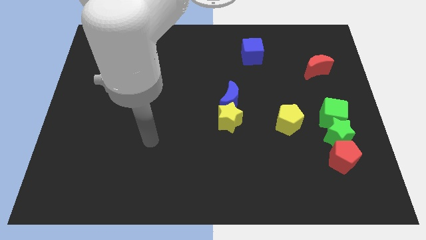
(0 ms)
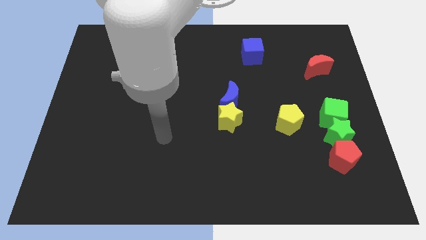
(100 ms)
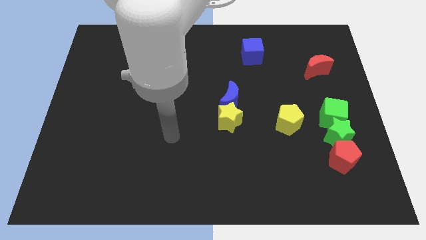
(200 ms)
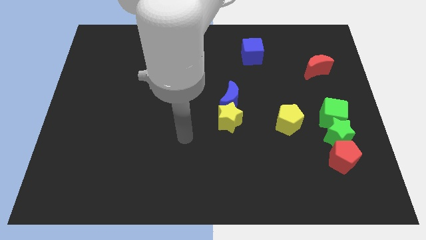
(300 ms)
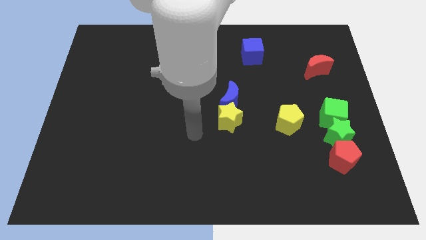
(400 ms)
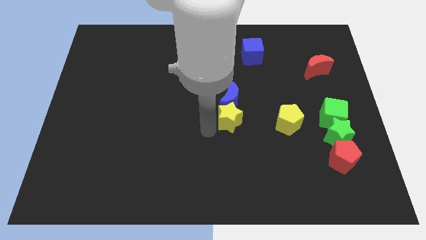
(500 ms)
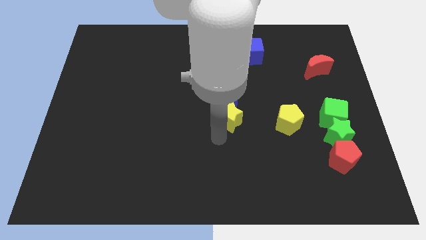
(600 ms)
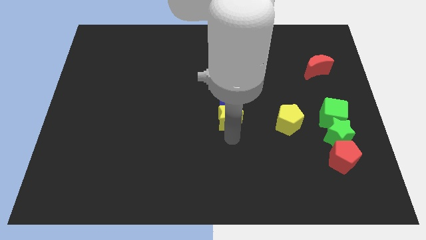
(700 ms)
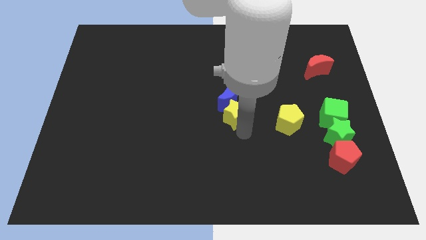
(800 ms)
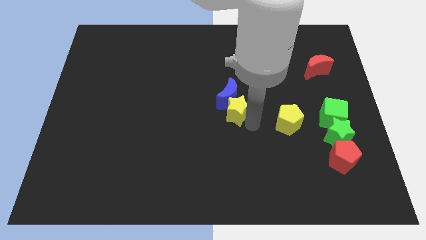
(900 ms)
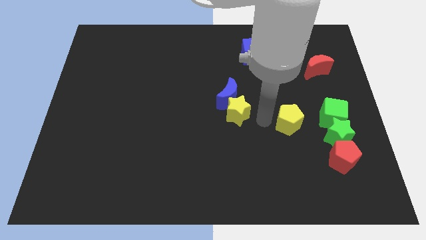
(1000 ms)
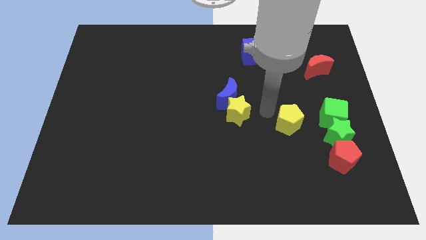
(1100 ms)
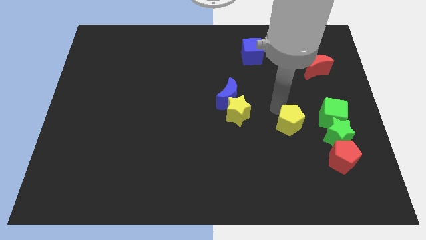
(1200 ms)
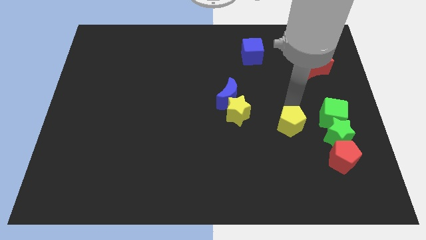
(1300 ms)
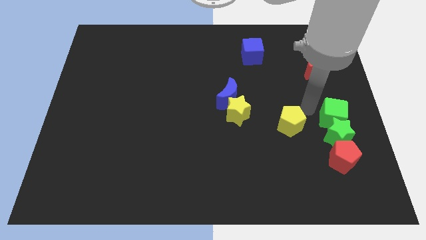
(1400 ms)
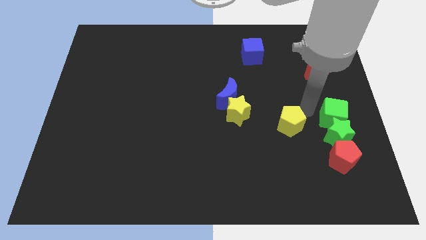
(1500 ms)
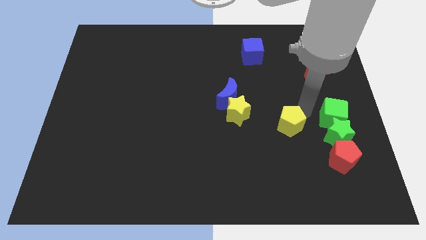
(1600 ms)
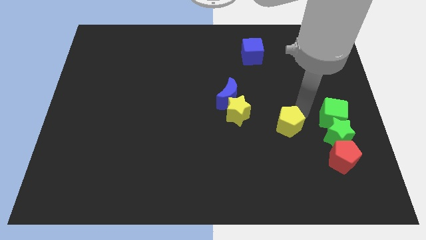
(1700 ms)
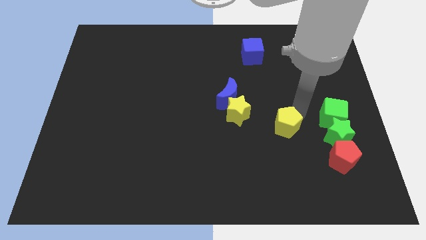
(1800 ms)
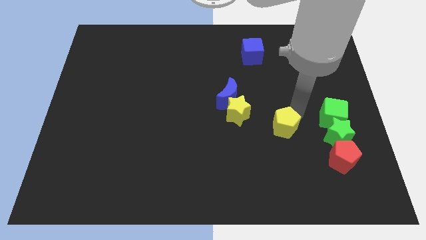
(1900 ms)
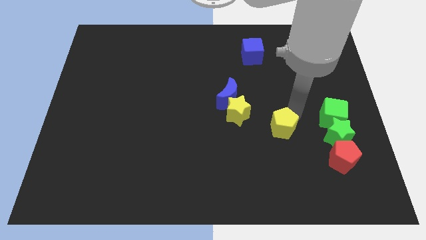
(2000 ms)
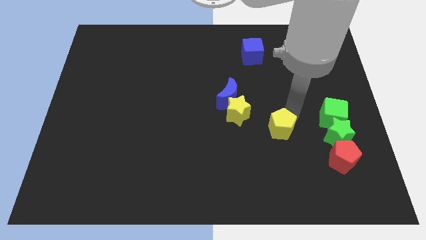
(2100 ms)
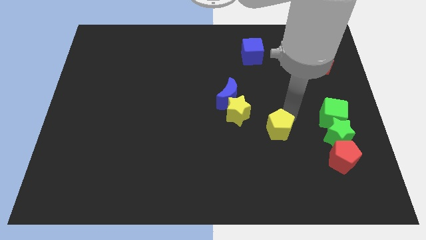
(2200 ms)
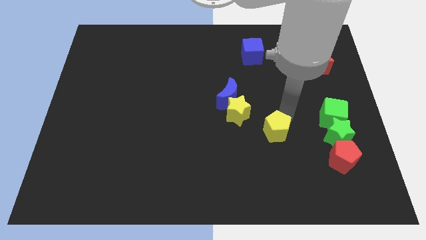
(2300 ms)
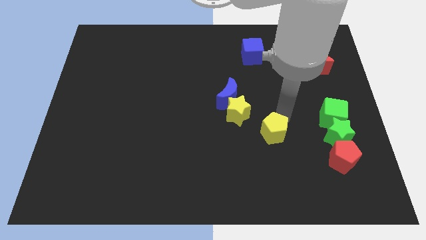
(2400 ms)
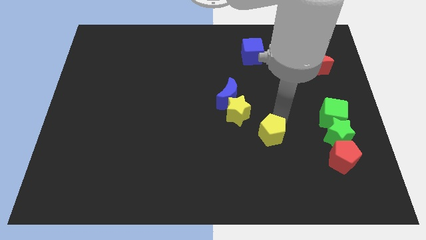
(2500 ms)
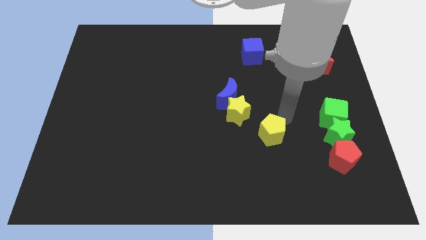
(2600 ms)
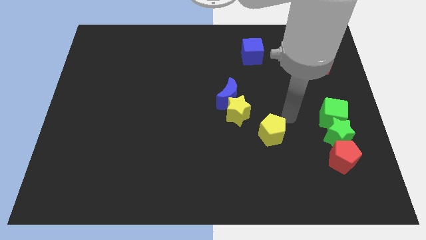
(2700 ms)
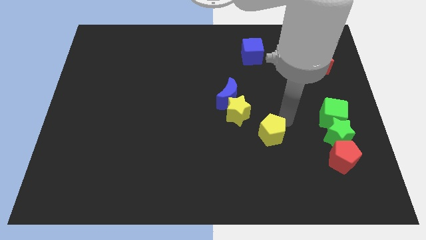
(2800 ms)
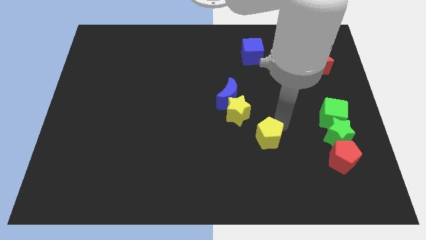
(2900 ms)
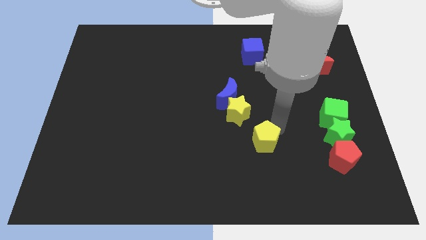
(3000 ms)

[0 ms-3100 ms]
move the yellow pentagon a little down and left

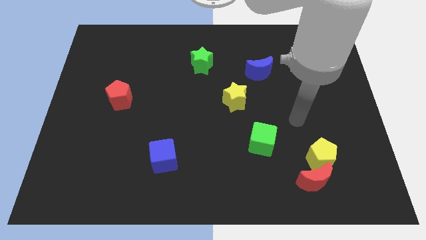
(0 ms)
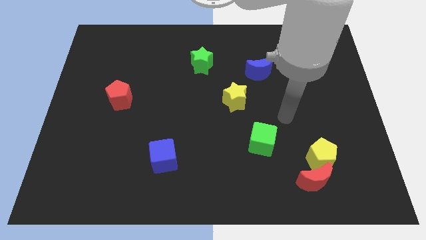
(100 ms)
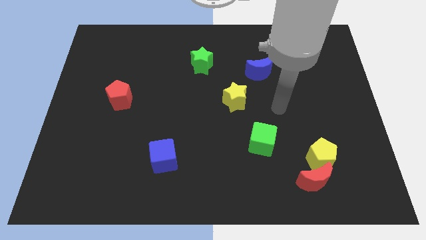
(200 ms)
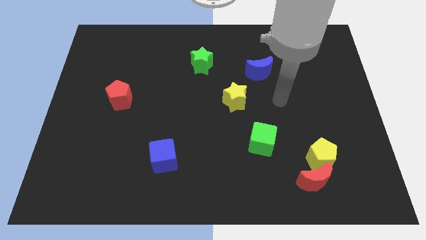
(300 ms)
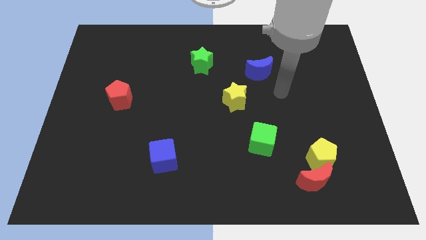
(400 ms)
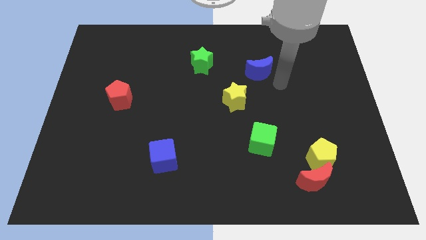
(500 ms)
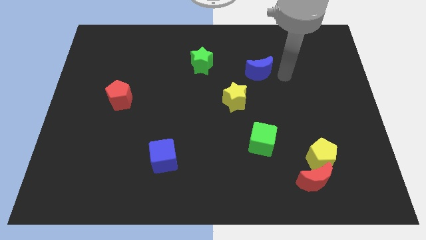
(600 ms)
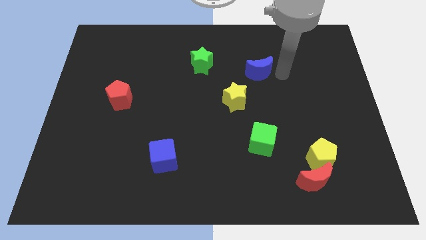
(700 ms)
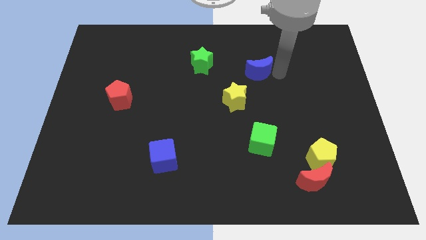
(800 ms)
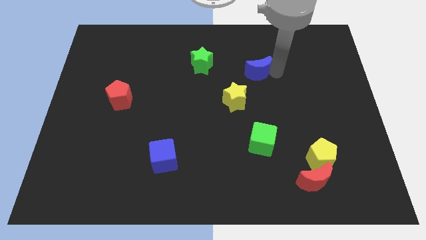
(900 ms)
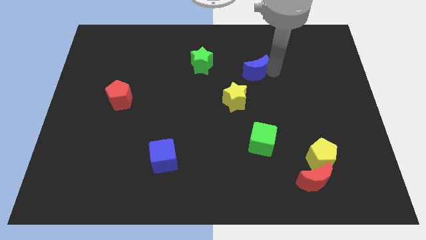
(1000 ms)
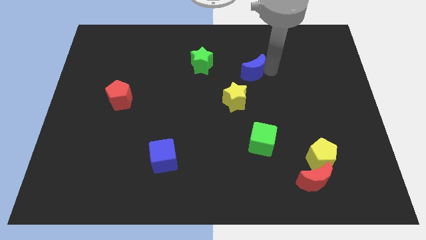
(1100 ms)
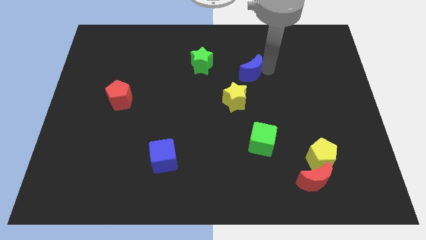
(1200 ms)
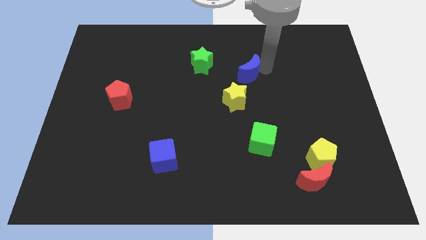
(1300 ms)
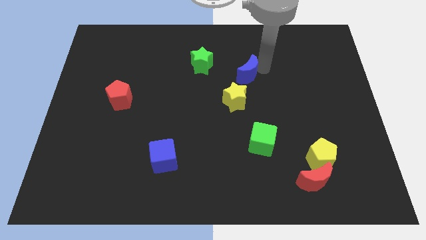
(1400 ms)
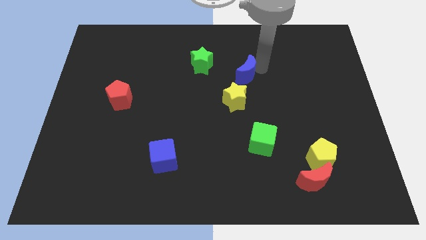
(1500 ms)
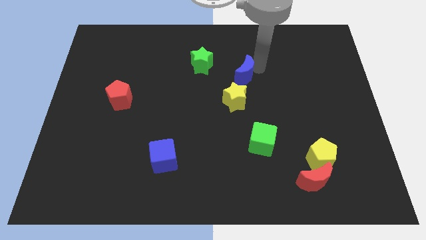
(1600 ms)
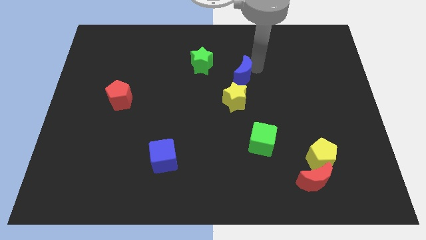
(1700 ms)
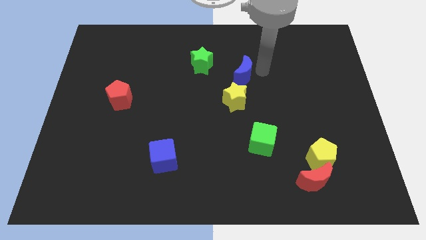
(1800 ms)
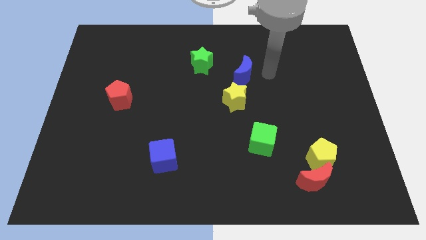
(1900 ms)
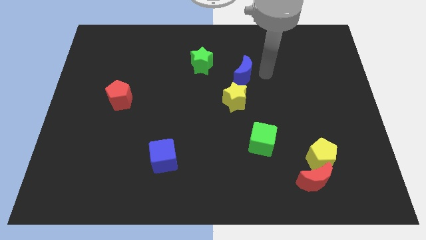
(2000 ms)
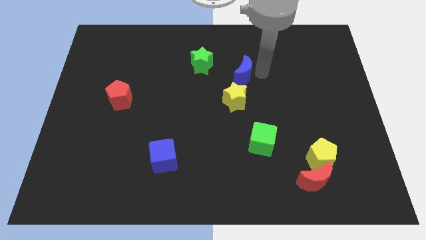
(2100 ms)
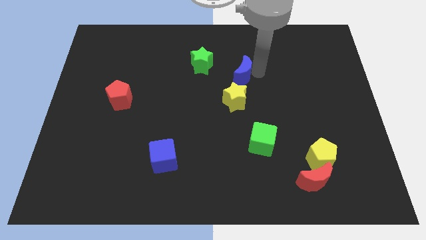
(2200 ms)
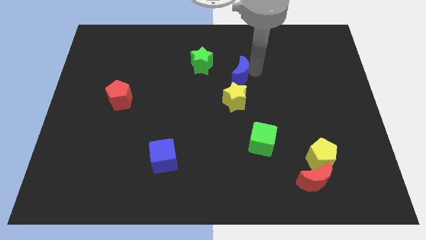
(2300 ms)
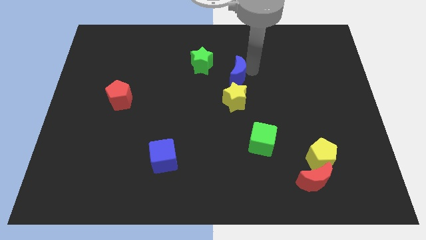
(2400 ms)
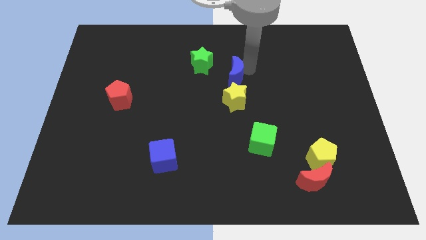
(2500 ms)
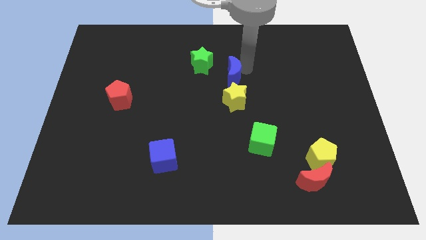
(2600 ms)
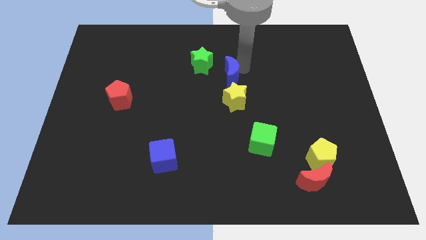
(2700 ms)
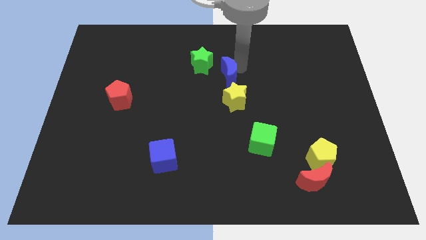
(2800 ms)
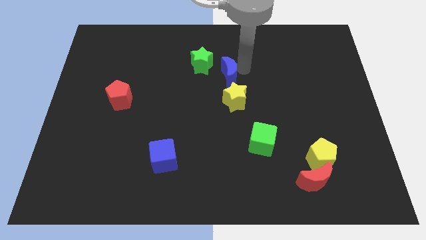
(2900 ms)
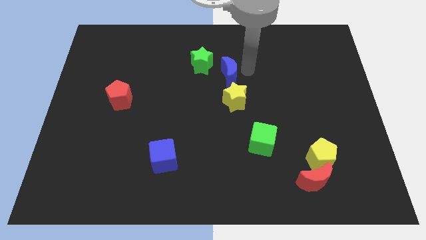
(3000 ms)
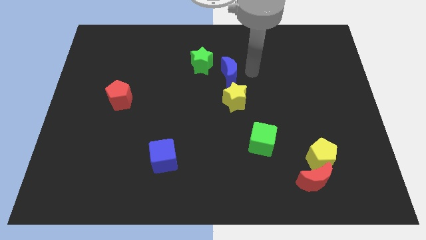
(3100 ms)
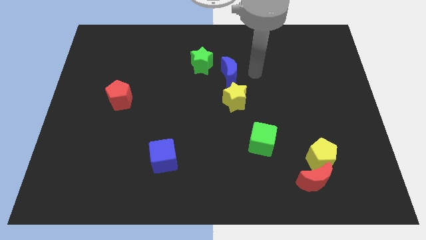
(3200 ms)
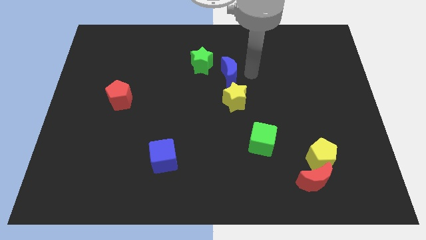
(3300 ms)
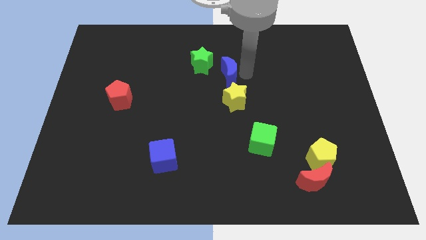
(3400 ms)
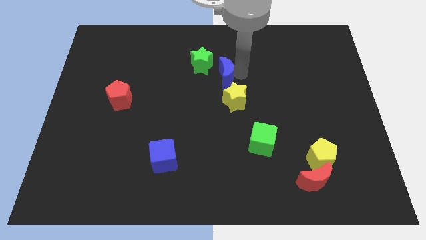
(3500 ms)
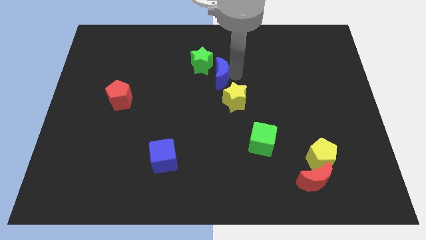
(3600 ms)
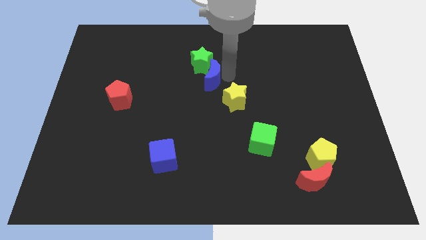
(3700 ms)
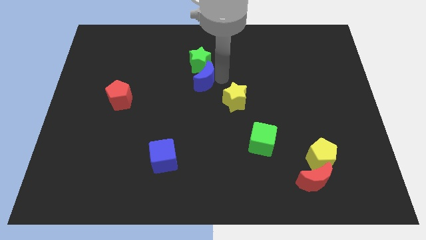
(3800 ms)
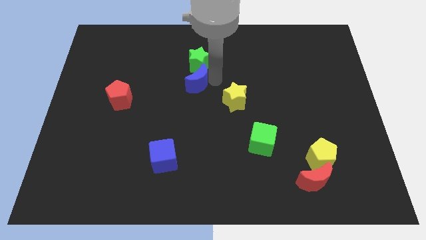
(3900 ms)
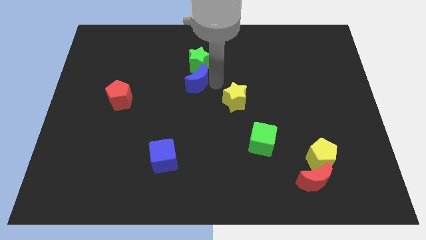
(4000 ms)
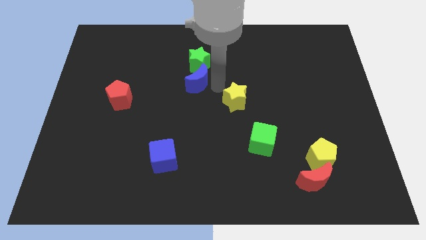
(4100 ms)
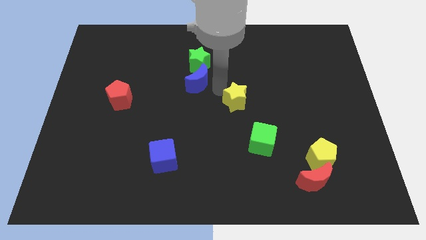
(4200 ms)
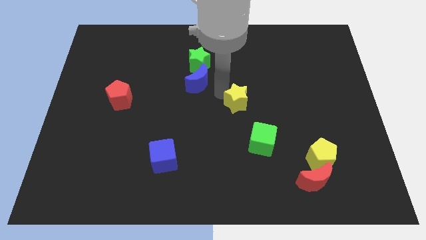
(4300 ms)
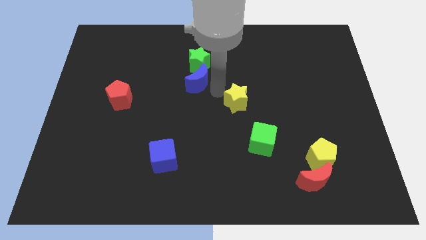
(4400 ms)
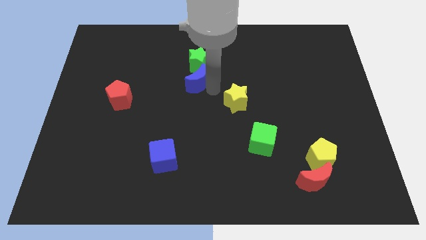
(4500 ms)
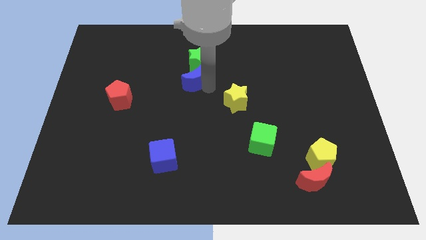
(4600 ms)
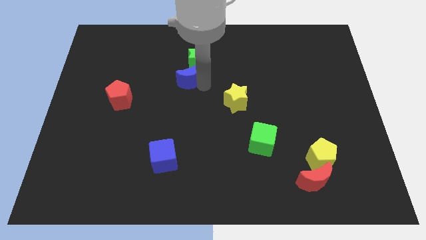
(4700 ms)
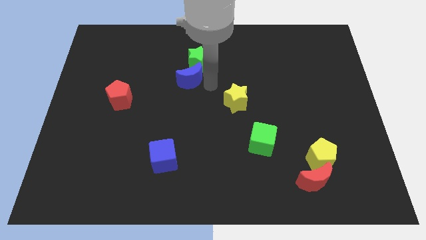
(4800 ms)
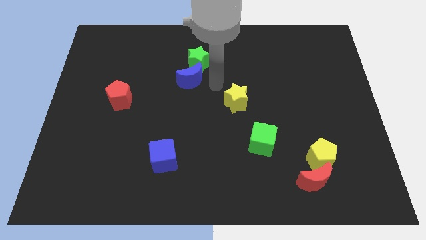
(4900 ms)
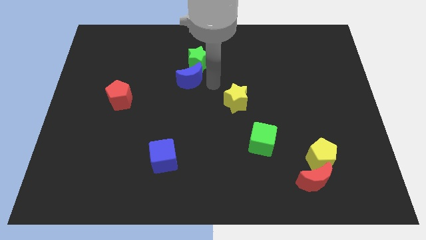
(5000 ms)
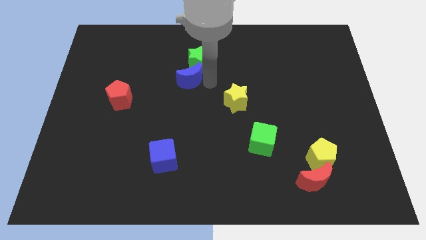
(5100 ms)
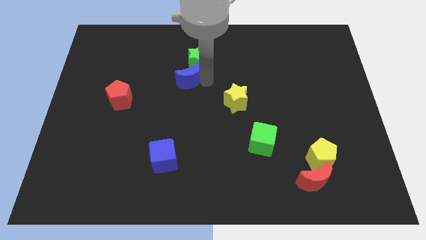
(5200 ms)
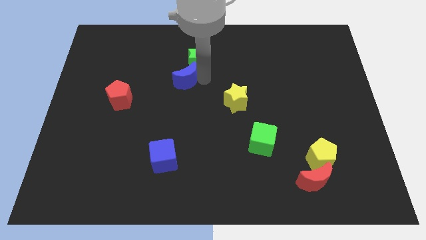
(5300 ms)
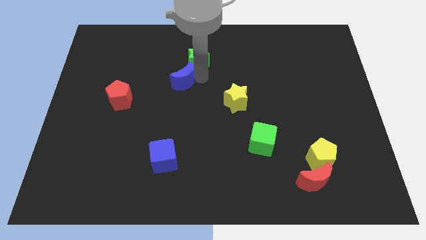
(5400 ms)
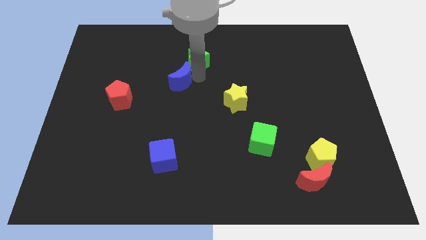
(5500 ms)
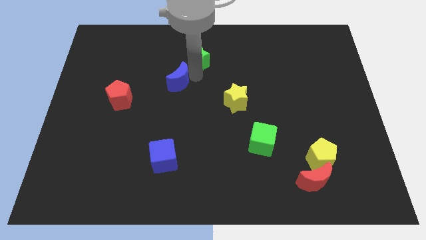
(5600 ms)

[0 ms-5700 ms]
move the blue moon left
